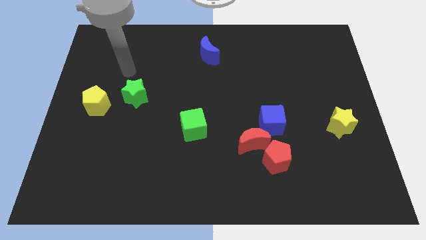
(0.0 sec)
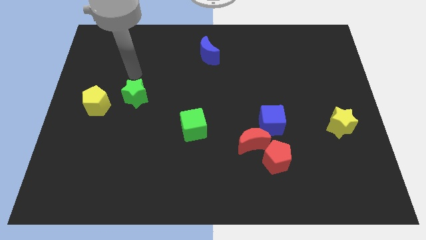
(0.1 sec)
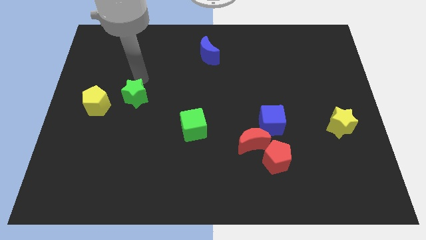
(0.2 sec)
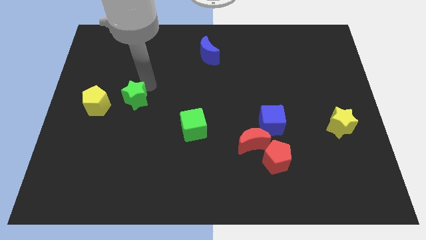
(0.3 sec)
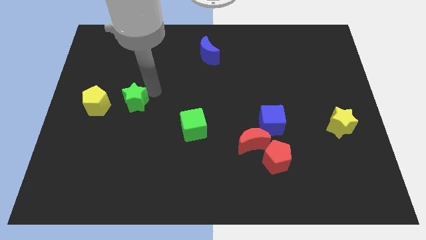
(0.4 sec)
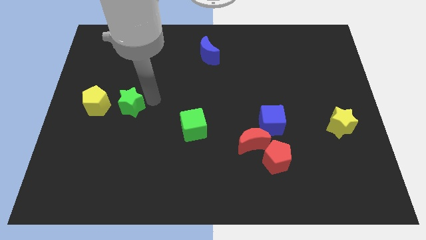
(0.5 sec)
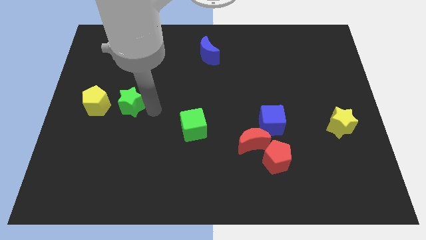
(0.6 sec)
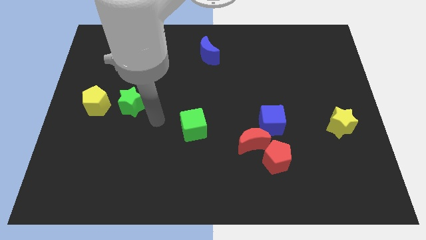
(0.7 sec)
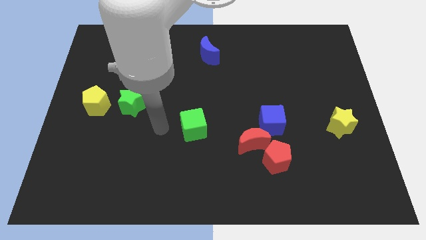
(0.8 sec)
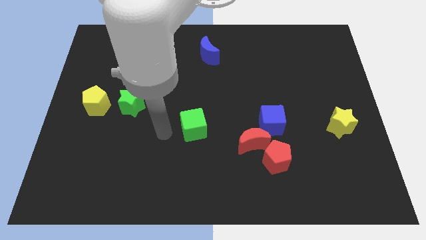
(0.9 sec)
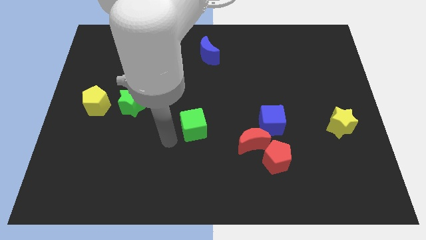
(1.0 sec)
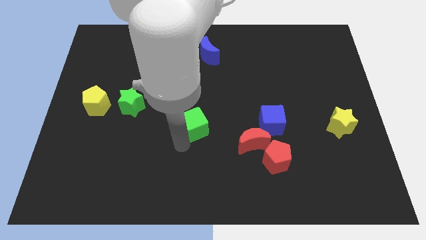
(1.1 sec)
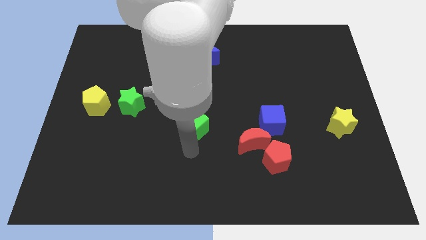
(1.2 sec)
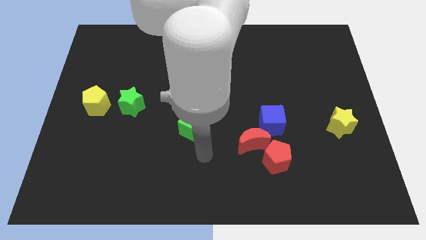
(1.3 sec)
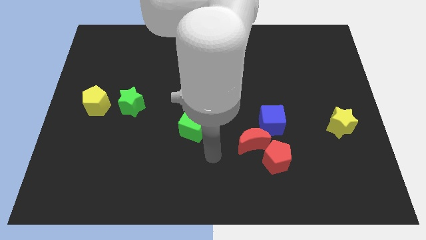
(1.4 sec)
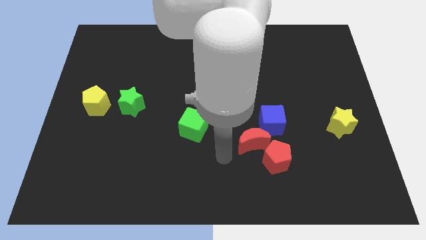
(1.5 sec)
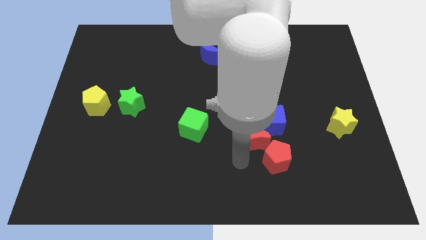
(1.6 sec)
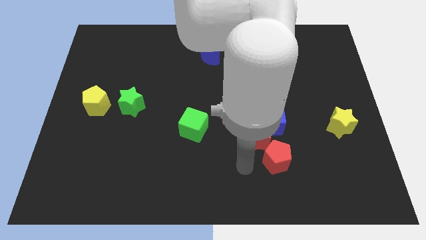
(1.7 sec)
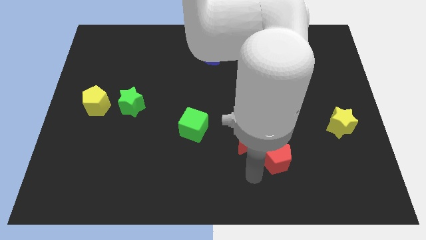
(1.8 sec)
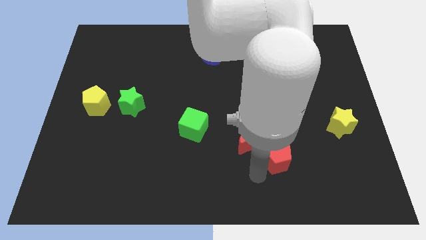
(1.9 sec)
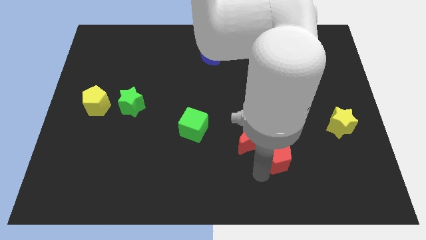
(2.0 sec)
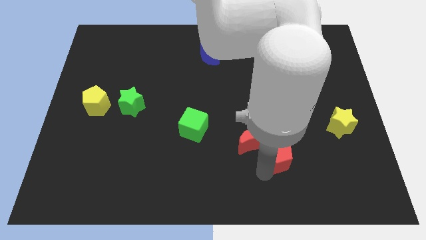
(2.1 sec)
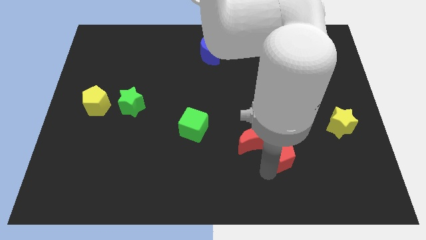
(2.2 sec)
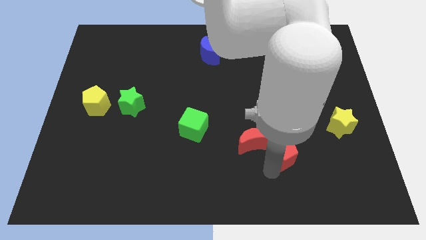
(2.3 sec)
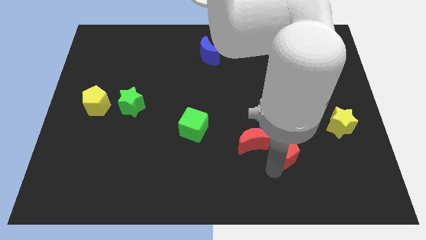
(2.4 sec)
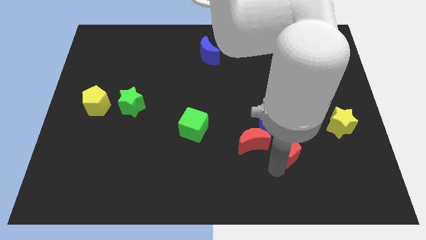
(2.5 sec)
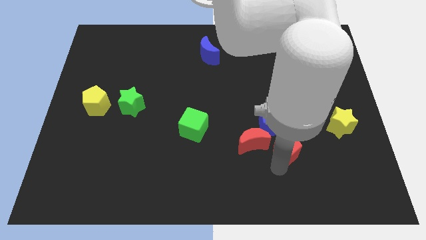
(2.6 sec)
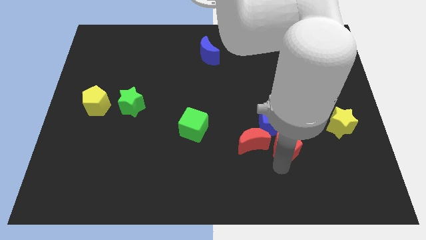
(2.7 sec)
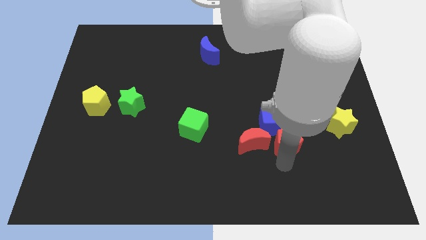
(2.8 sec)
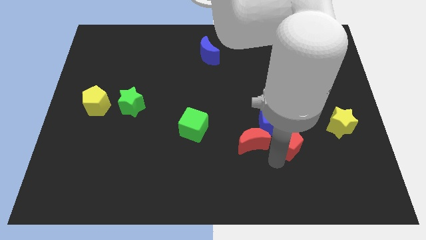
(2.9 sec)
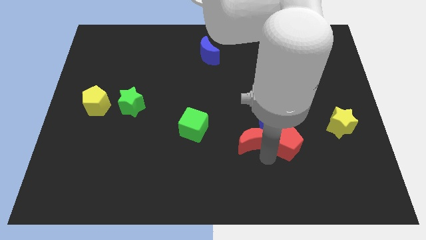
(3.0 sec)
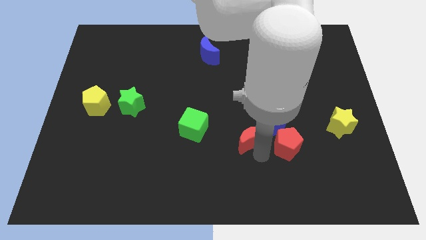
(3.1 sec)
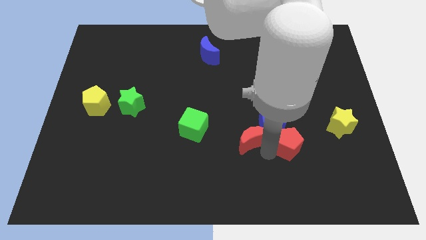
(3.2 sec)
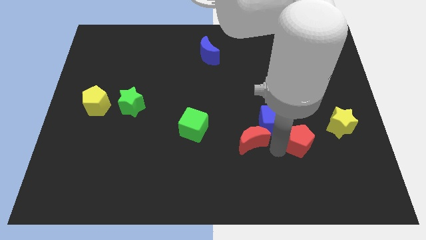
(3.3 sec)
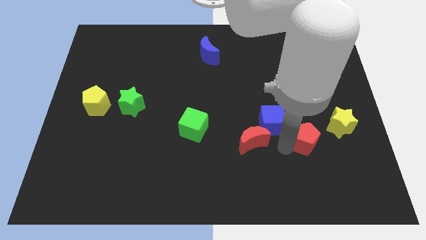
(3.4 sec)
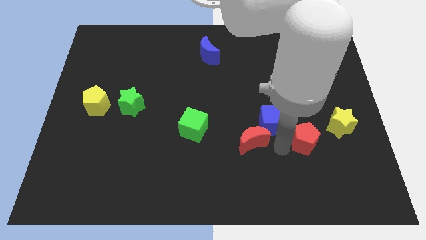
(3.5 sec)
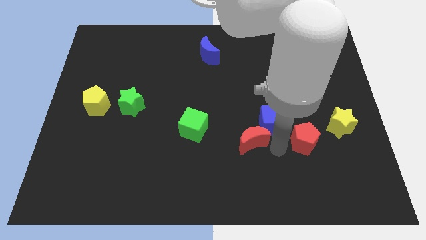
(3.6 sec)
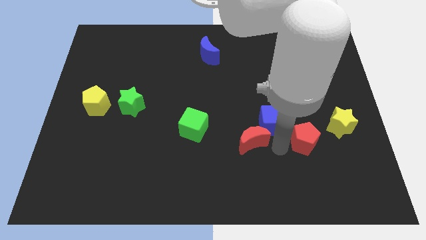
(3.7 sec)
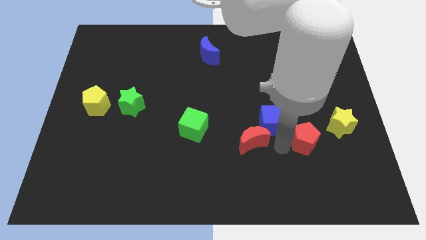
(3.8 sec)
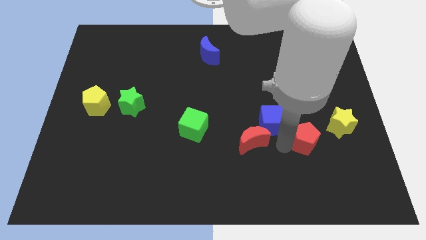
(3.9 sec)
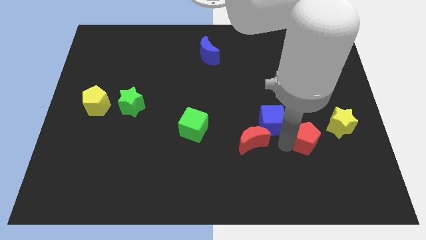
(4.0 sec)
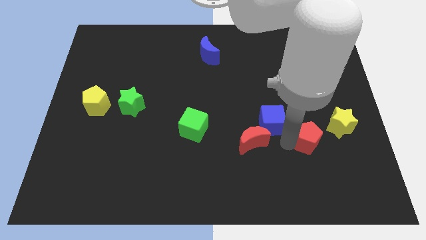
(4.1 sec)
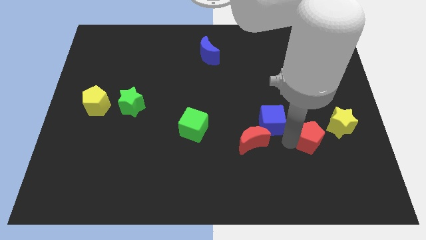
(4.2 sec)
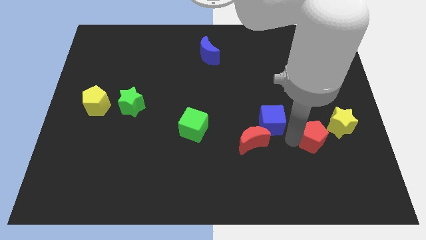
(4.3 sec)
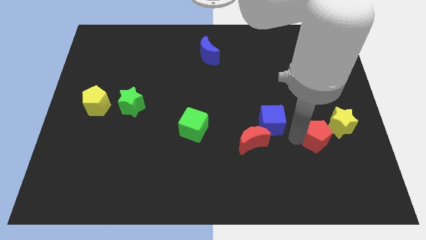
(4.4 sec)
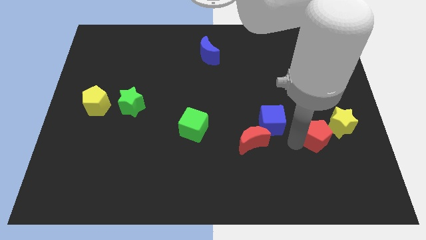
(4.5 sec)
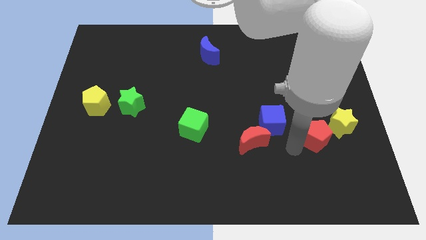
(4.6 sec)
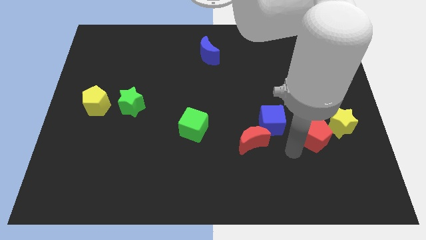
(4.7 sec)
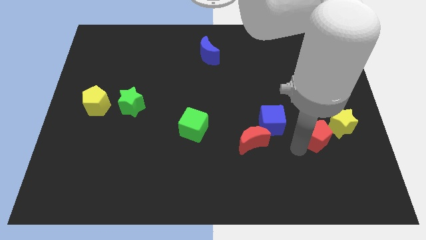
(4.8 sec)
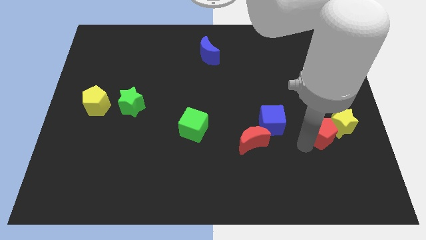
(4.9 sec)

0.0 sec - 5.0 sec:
move the red pentagon to the yellow star

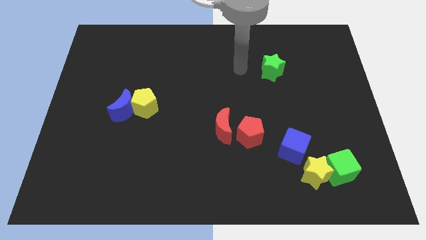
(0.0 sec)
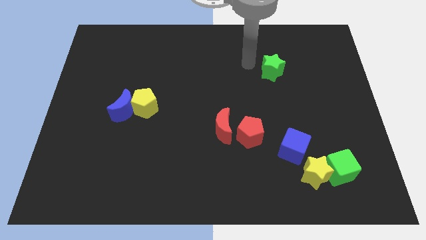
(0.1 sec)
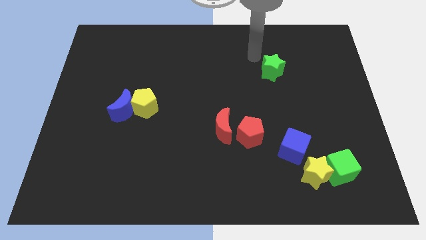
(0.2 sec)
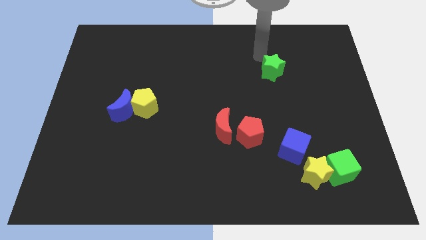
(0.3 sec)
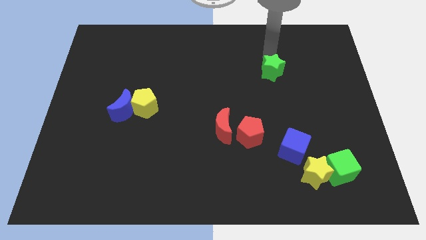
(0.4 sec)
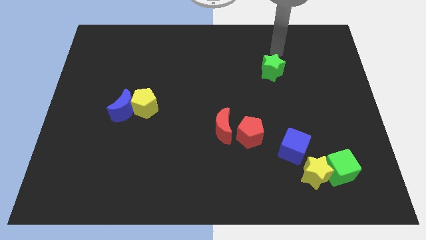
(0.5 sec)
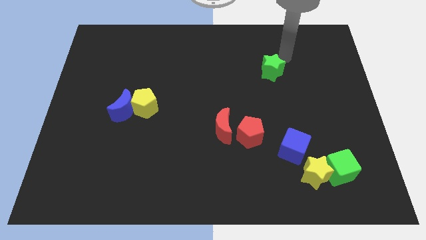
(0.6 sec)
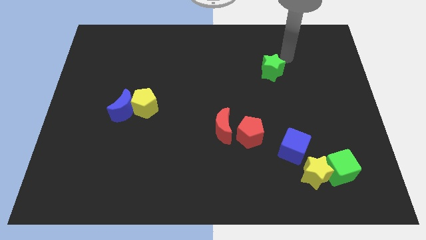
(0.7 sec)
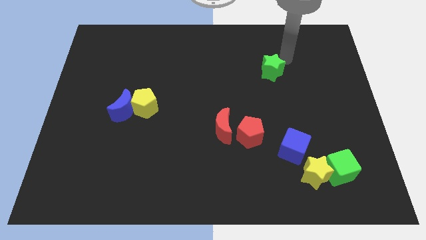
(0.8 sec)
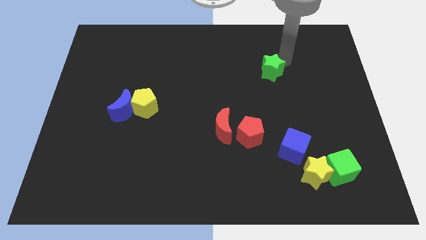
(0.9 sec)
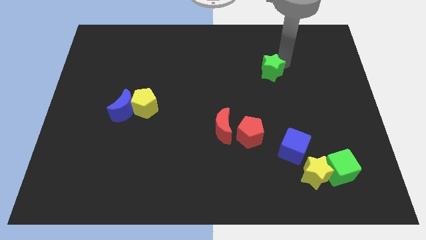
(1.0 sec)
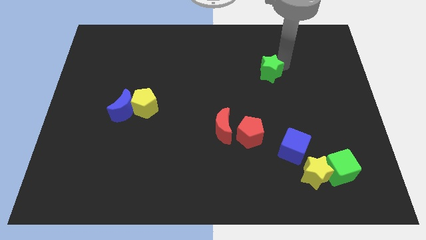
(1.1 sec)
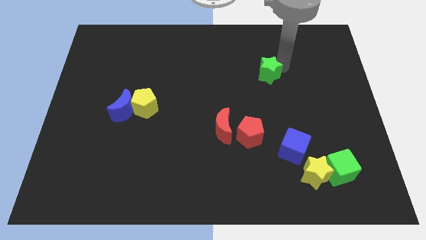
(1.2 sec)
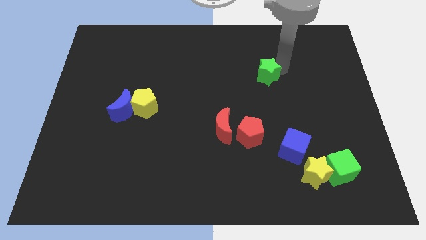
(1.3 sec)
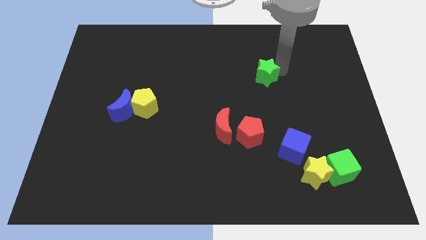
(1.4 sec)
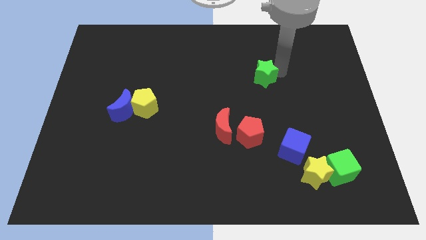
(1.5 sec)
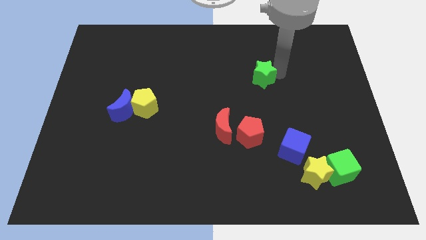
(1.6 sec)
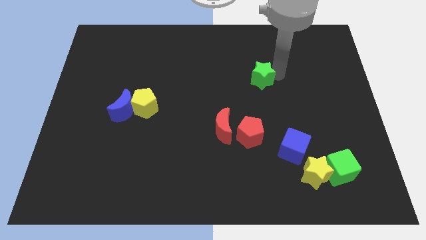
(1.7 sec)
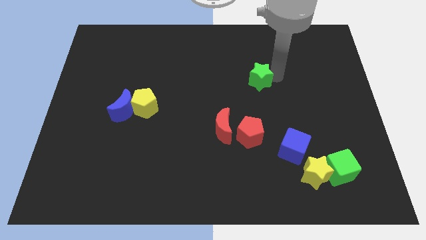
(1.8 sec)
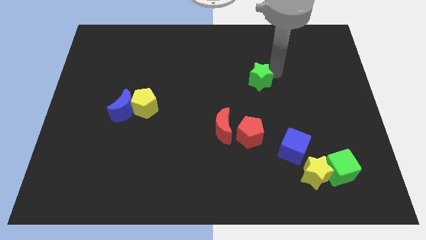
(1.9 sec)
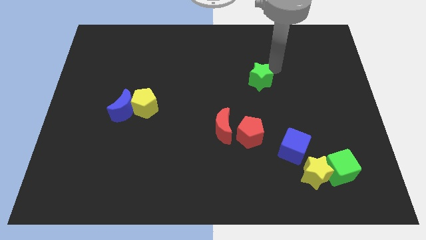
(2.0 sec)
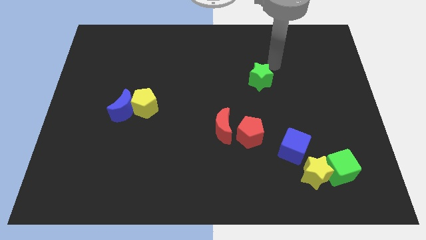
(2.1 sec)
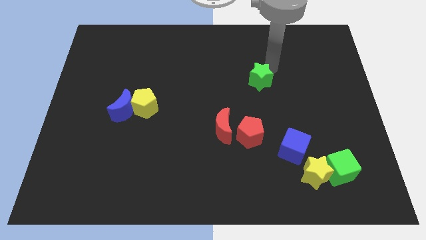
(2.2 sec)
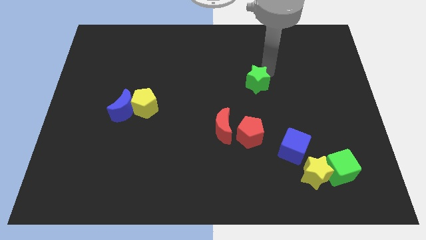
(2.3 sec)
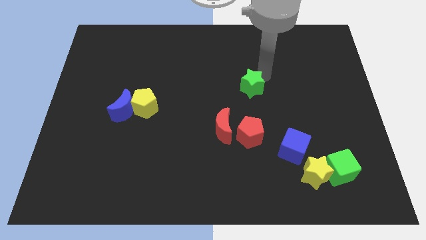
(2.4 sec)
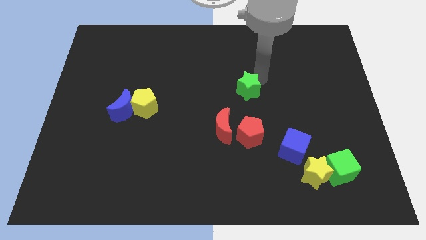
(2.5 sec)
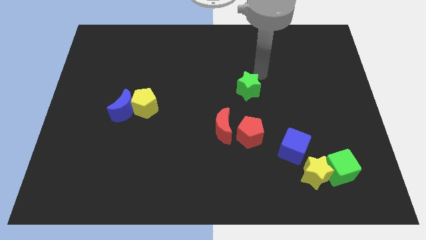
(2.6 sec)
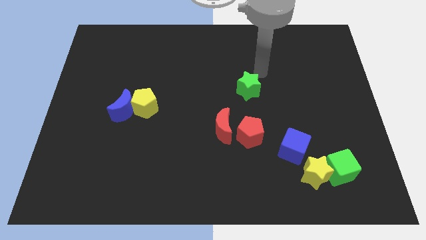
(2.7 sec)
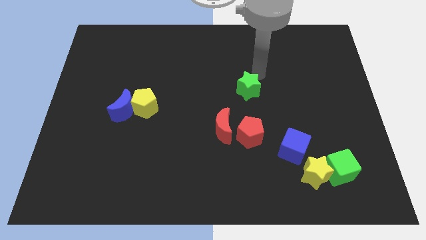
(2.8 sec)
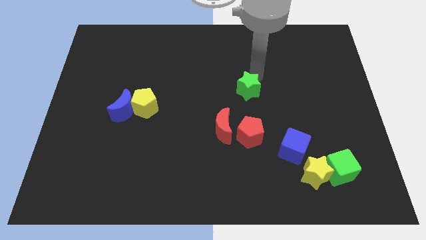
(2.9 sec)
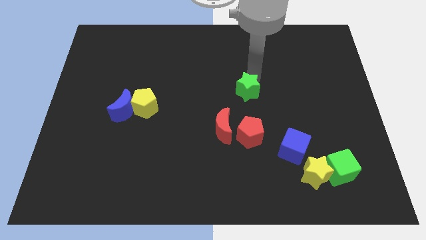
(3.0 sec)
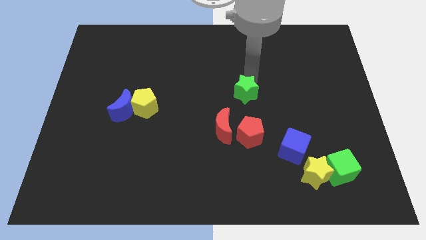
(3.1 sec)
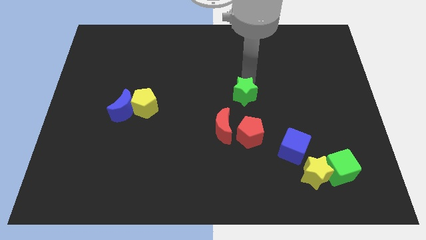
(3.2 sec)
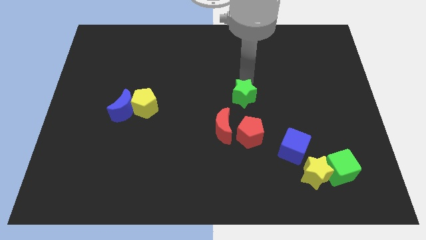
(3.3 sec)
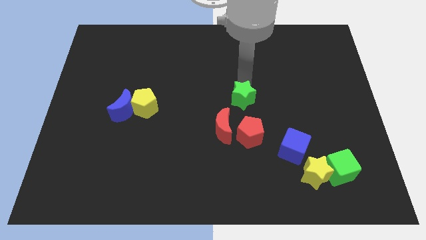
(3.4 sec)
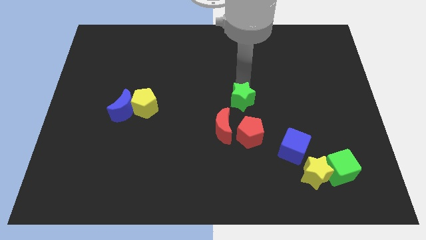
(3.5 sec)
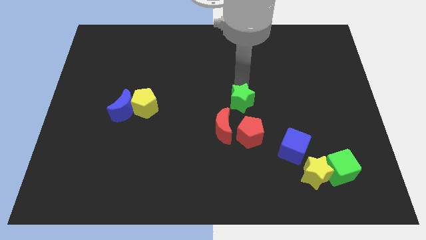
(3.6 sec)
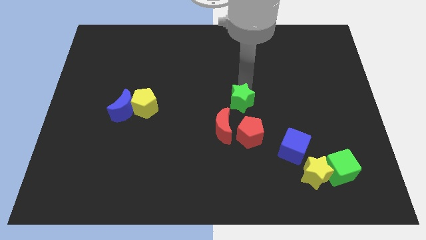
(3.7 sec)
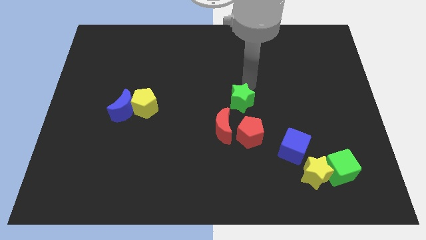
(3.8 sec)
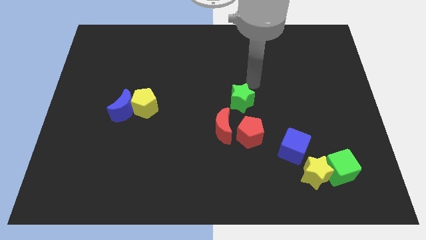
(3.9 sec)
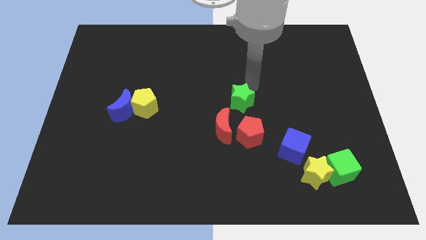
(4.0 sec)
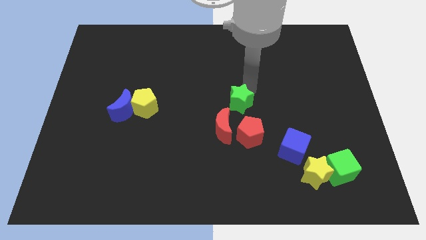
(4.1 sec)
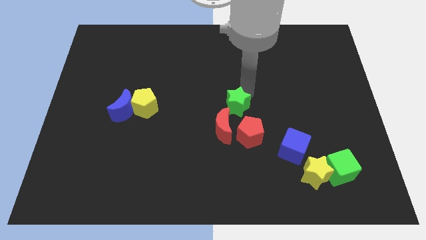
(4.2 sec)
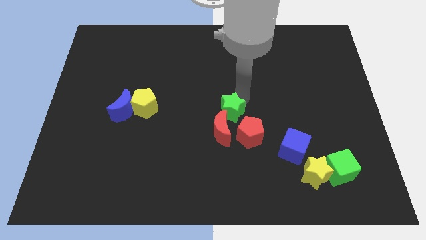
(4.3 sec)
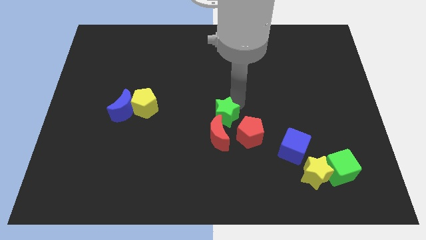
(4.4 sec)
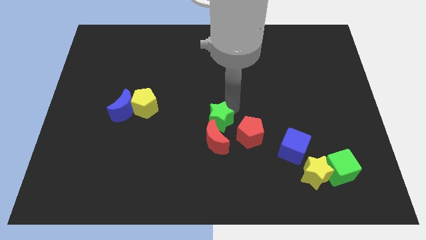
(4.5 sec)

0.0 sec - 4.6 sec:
put the green star to the red moon
